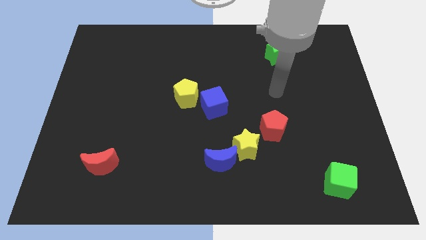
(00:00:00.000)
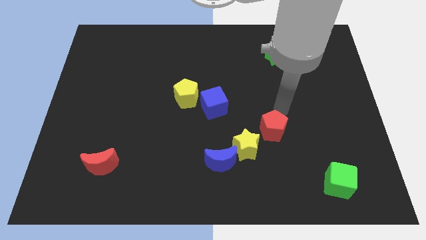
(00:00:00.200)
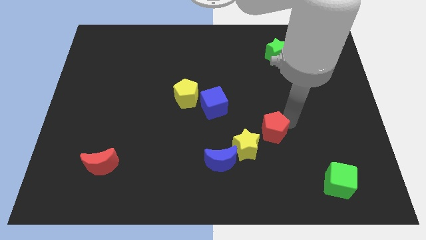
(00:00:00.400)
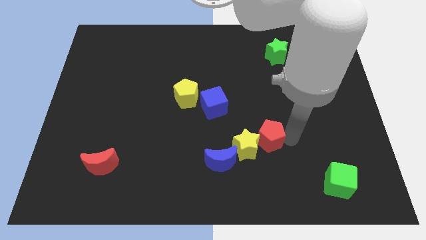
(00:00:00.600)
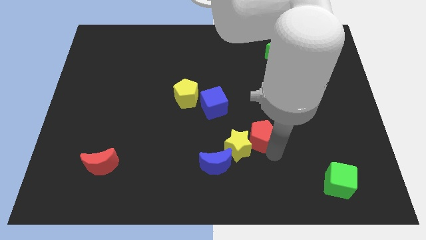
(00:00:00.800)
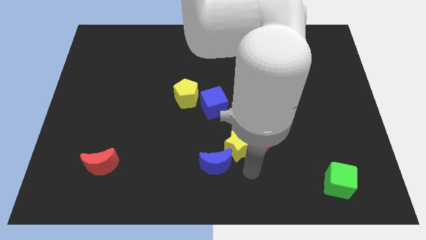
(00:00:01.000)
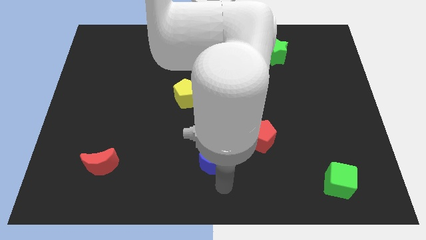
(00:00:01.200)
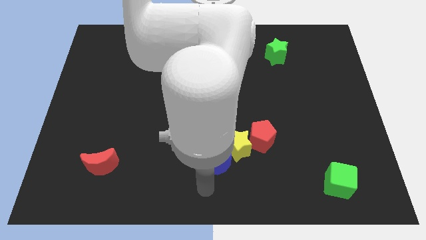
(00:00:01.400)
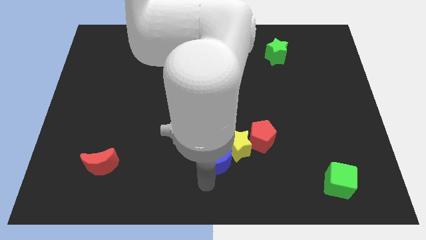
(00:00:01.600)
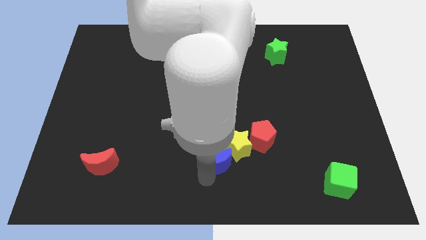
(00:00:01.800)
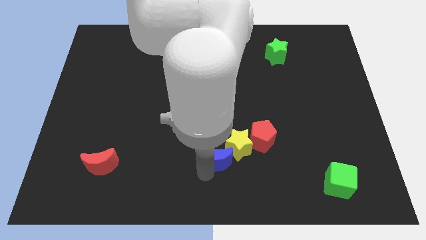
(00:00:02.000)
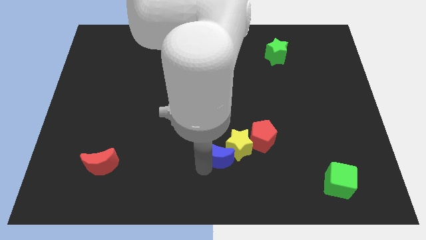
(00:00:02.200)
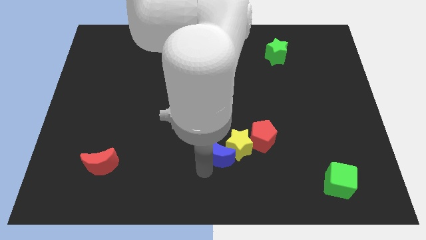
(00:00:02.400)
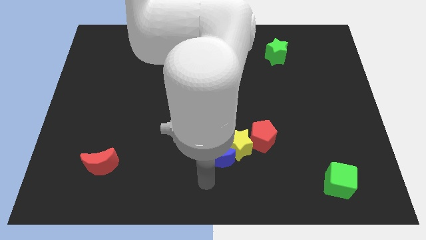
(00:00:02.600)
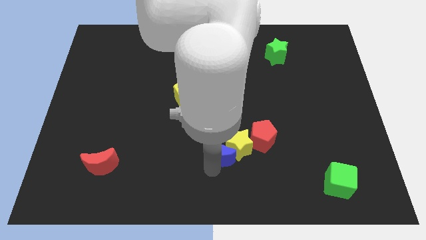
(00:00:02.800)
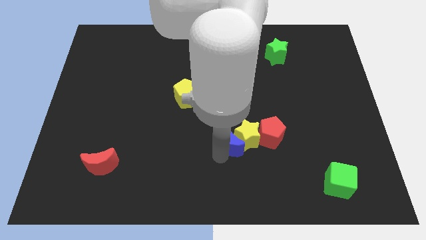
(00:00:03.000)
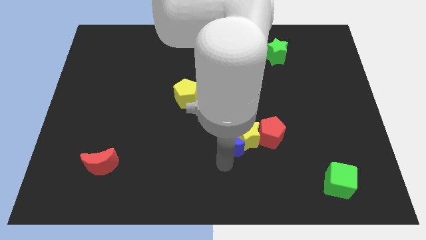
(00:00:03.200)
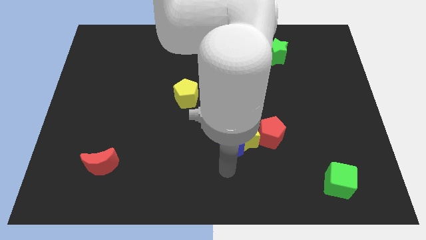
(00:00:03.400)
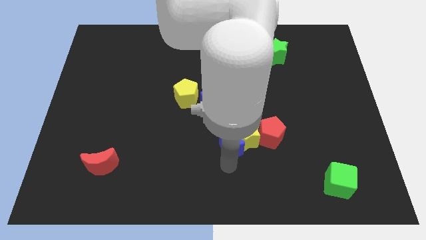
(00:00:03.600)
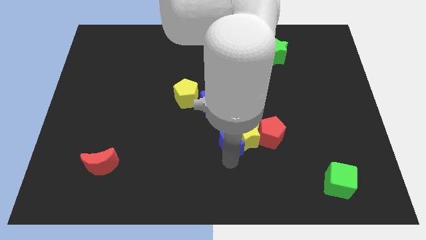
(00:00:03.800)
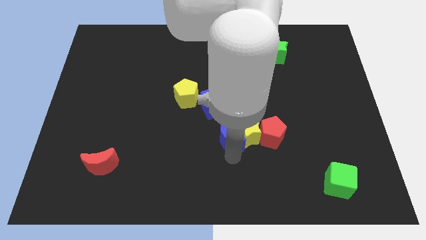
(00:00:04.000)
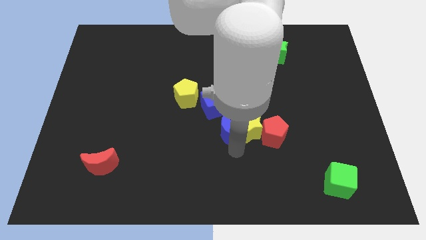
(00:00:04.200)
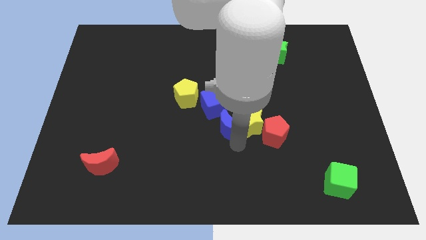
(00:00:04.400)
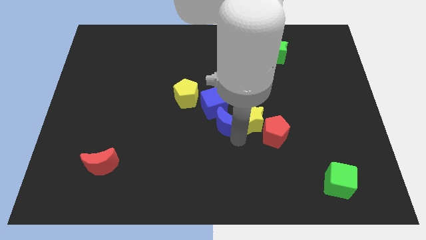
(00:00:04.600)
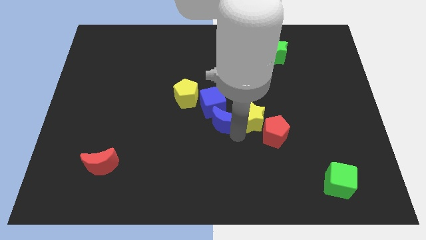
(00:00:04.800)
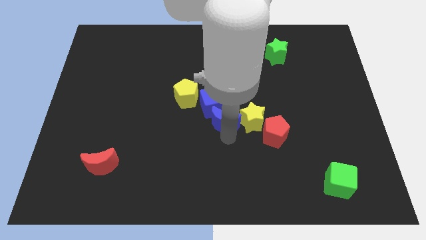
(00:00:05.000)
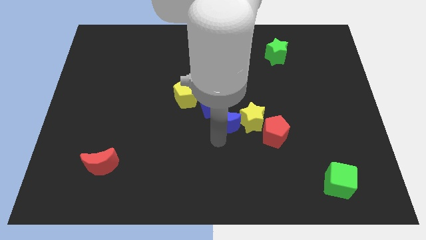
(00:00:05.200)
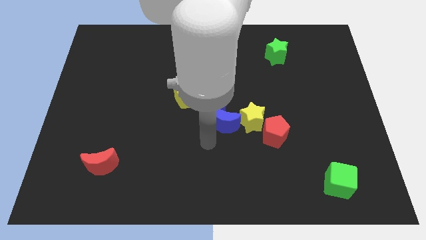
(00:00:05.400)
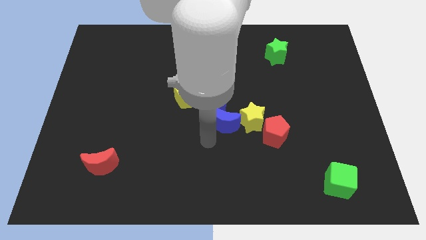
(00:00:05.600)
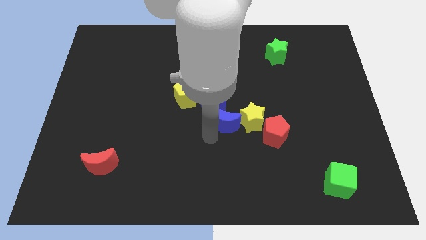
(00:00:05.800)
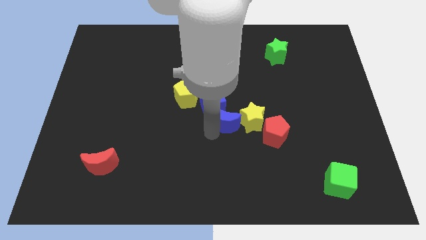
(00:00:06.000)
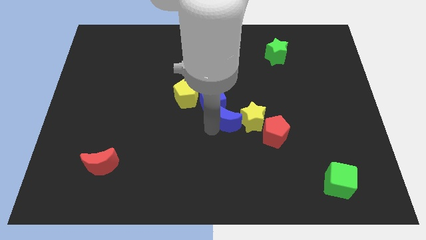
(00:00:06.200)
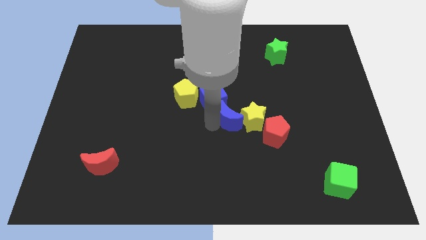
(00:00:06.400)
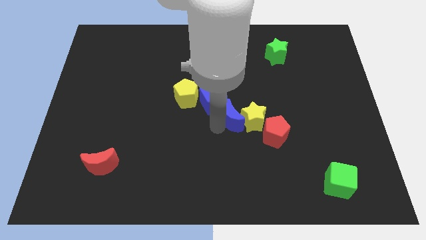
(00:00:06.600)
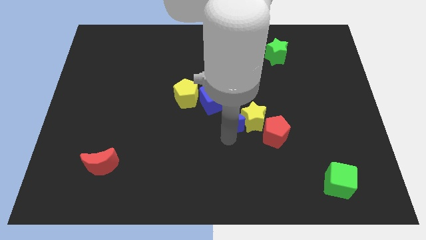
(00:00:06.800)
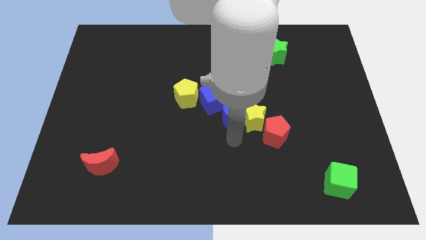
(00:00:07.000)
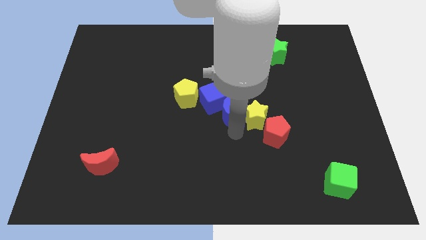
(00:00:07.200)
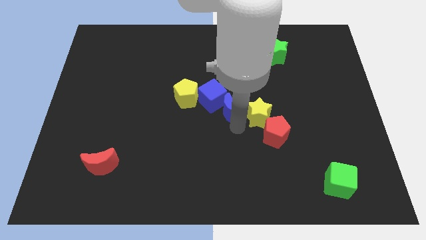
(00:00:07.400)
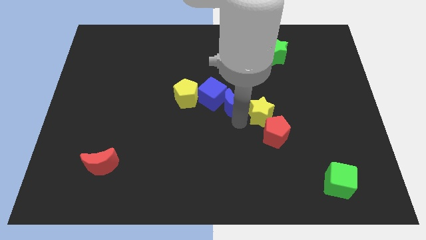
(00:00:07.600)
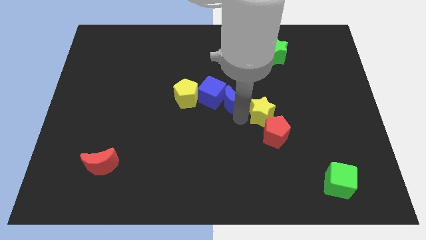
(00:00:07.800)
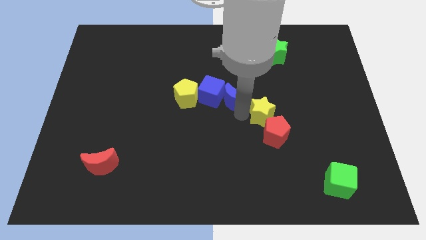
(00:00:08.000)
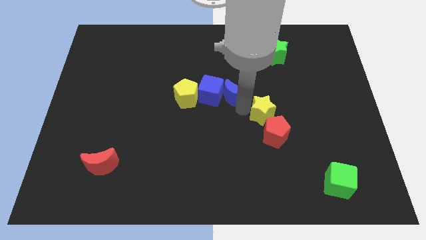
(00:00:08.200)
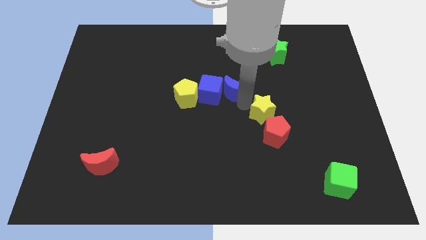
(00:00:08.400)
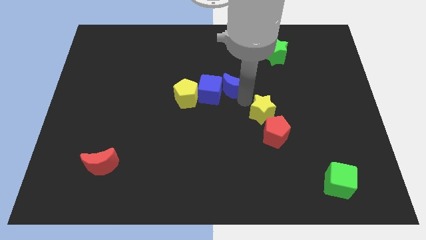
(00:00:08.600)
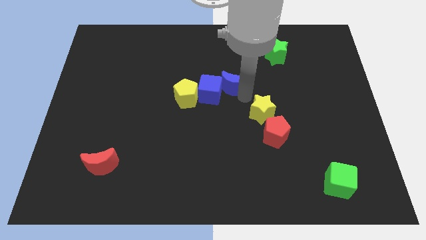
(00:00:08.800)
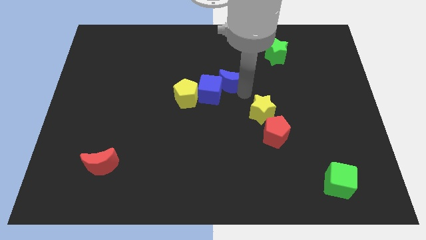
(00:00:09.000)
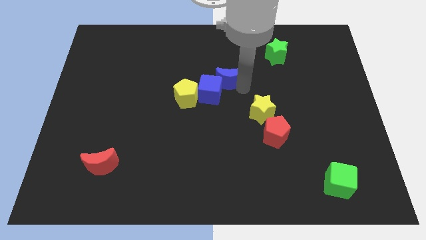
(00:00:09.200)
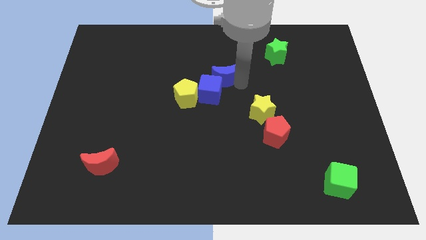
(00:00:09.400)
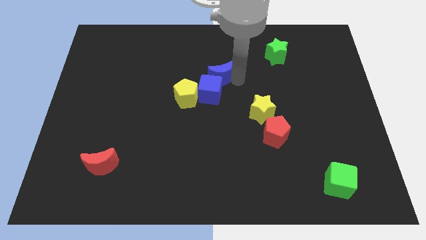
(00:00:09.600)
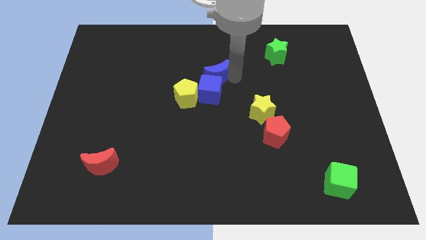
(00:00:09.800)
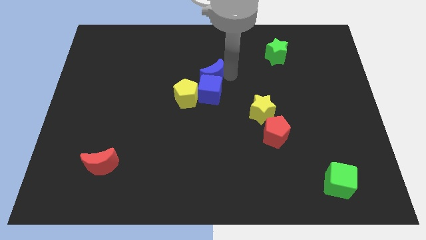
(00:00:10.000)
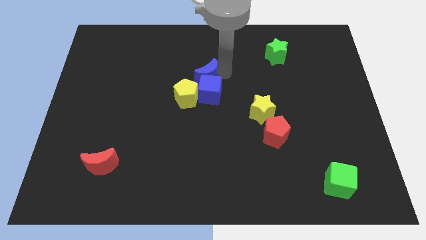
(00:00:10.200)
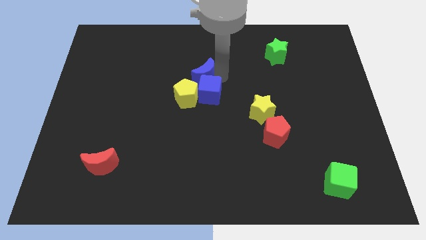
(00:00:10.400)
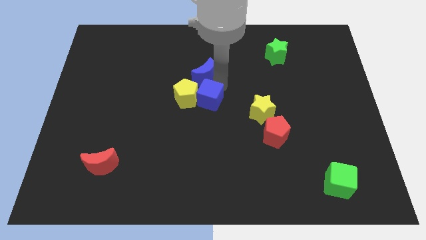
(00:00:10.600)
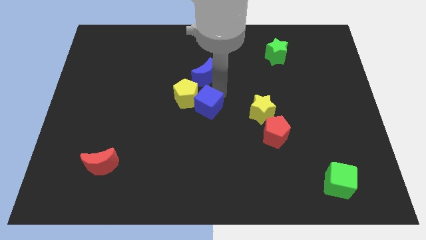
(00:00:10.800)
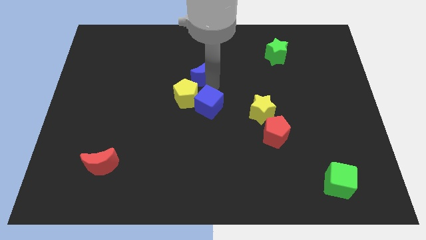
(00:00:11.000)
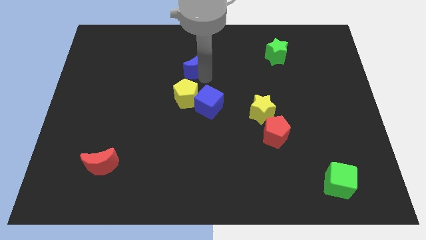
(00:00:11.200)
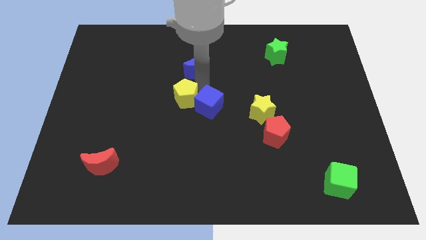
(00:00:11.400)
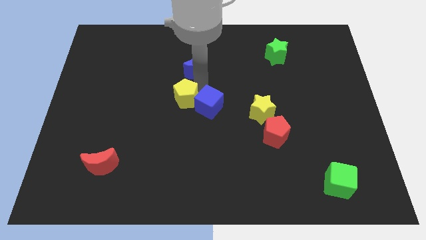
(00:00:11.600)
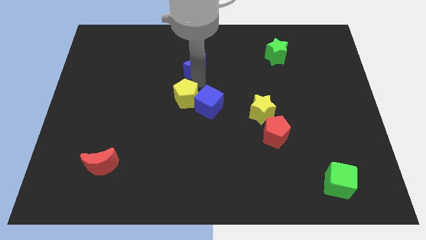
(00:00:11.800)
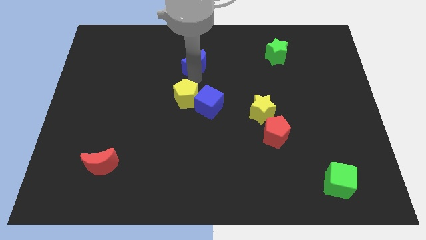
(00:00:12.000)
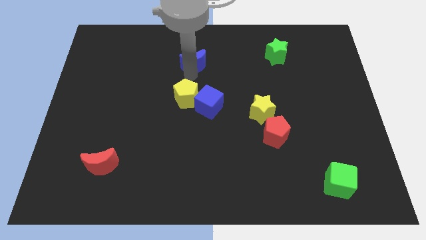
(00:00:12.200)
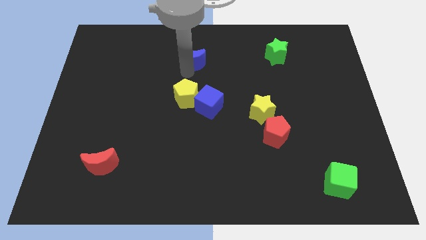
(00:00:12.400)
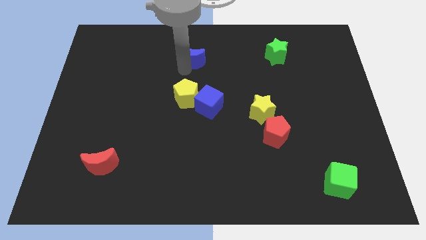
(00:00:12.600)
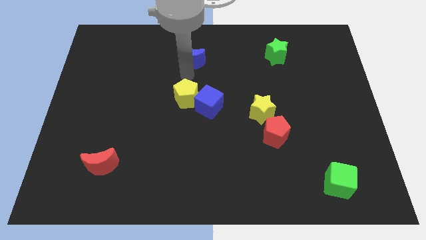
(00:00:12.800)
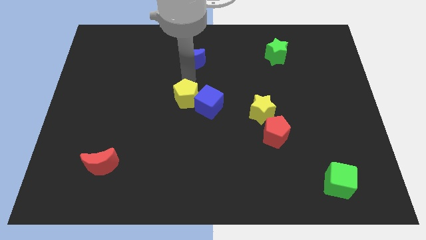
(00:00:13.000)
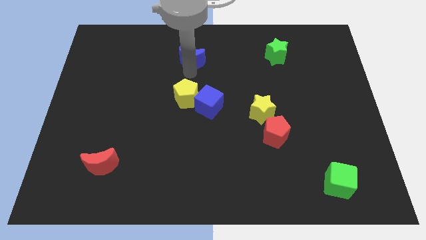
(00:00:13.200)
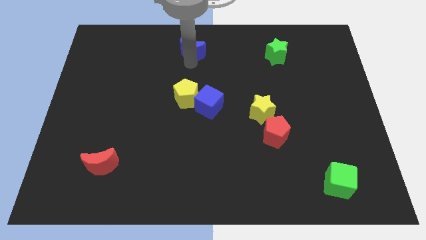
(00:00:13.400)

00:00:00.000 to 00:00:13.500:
slide the blue moon to the top side
